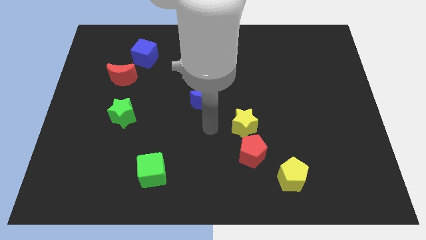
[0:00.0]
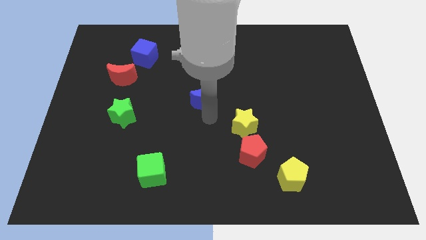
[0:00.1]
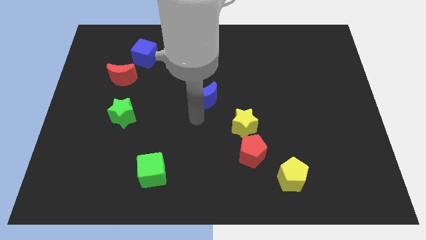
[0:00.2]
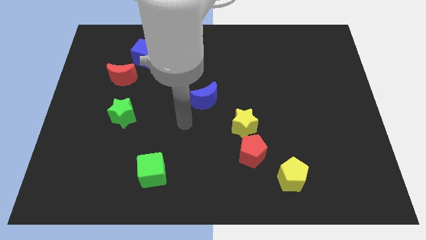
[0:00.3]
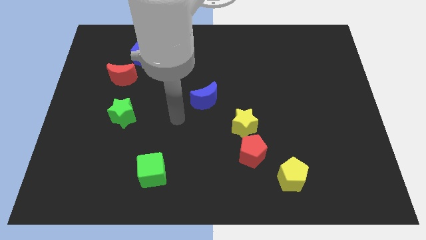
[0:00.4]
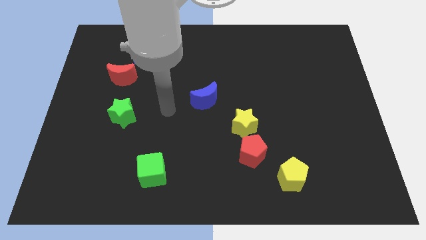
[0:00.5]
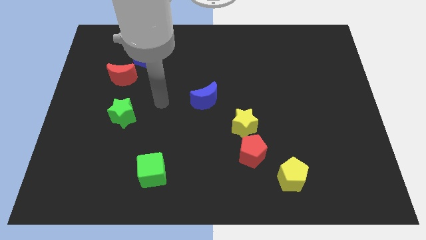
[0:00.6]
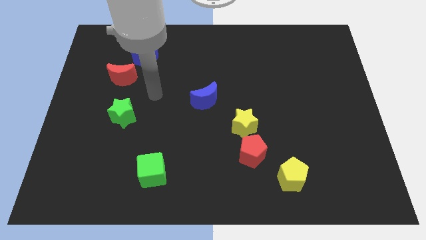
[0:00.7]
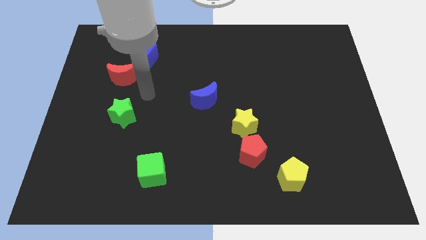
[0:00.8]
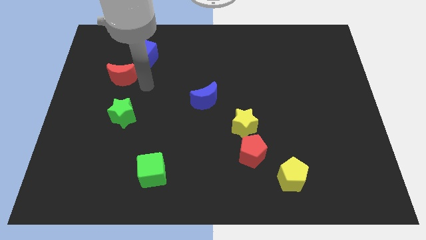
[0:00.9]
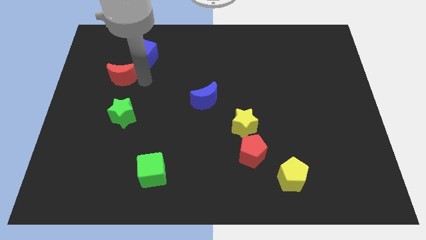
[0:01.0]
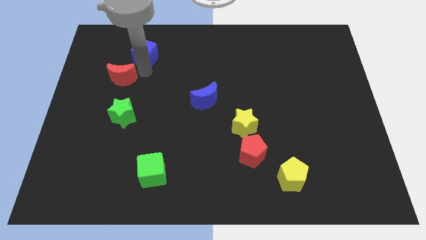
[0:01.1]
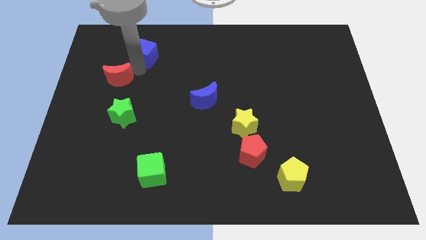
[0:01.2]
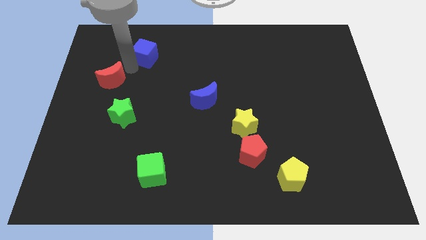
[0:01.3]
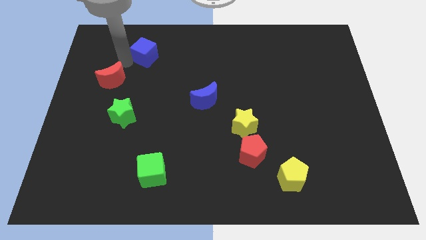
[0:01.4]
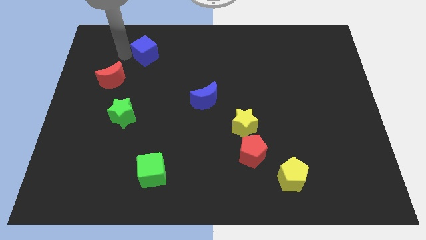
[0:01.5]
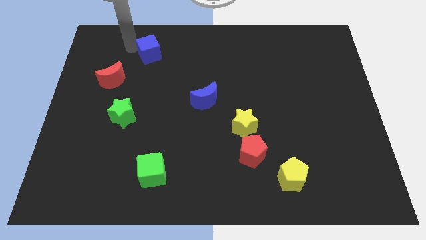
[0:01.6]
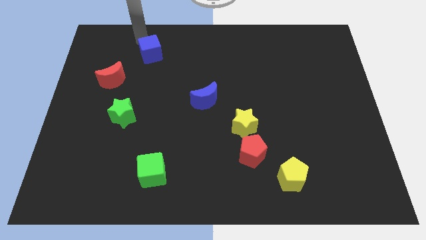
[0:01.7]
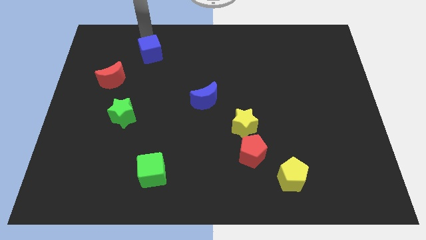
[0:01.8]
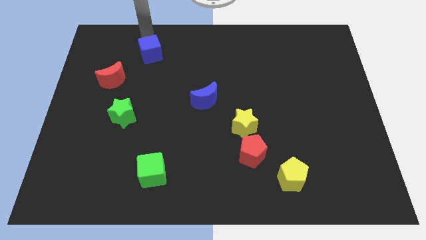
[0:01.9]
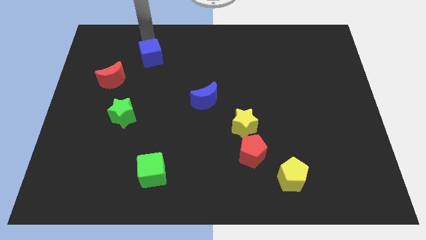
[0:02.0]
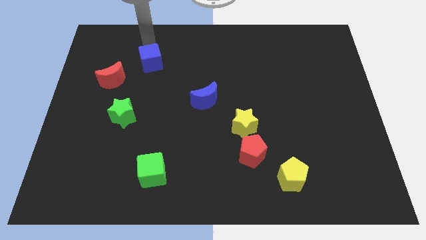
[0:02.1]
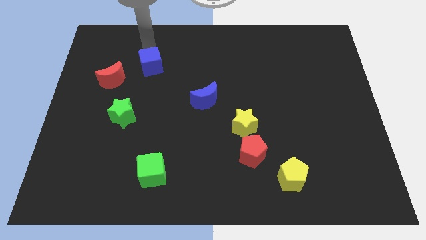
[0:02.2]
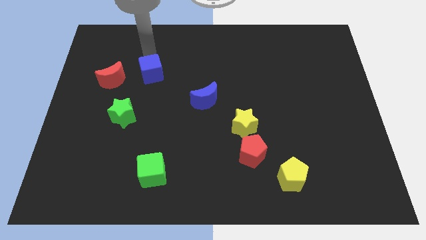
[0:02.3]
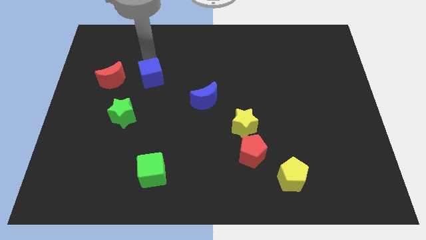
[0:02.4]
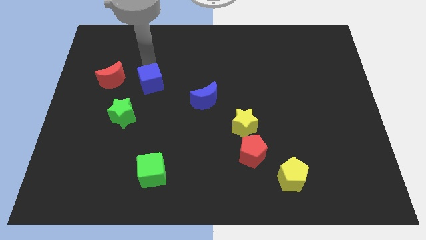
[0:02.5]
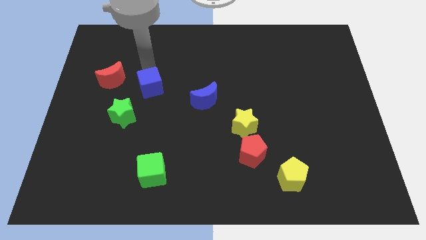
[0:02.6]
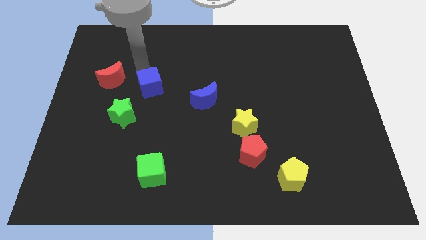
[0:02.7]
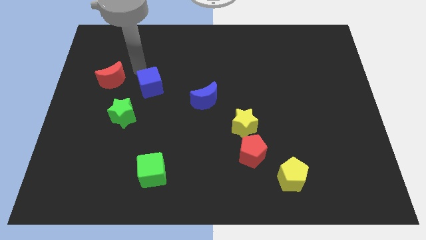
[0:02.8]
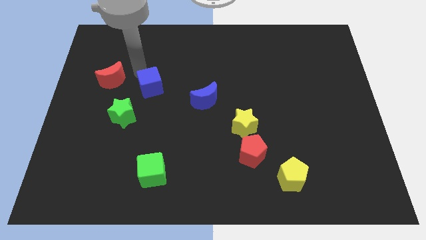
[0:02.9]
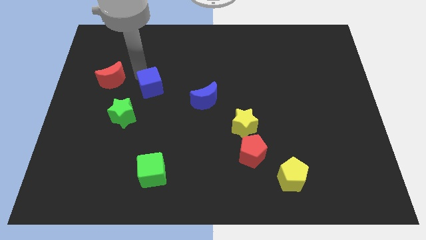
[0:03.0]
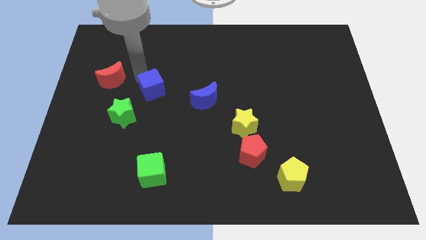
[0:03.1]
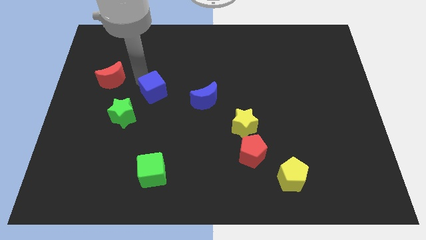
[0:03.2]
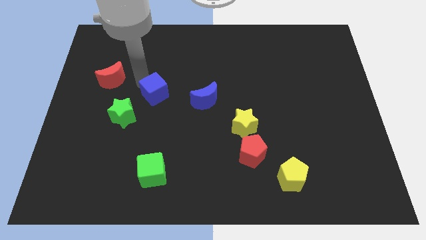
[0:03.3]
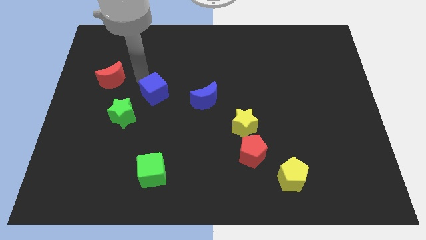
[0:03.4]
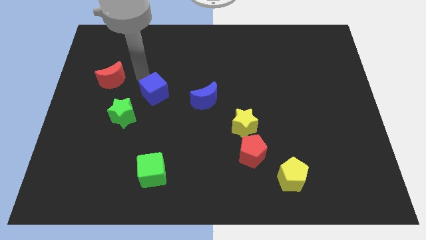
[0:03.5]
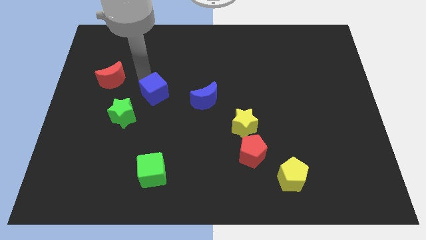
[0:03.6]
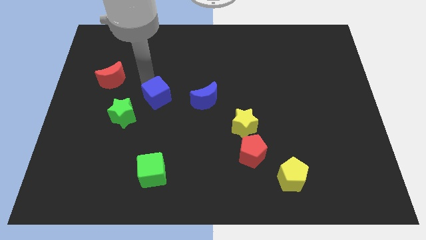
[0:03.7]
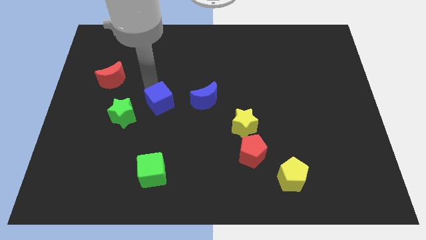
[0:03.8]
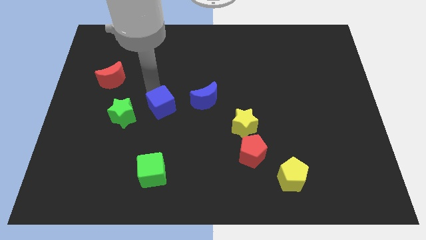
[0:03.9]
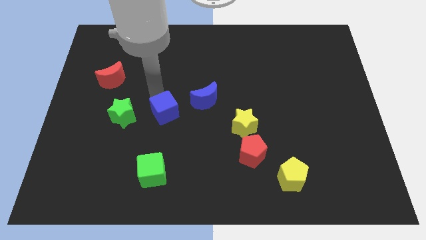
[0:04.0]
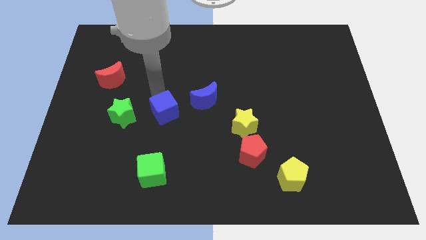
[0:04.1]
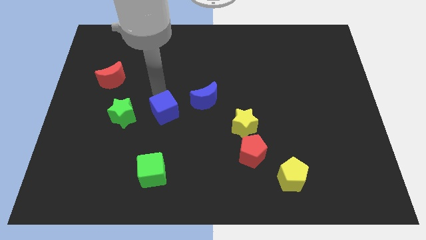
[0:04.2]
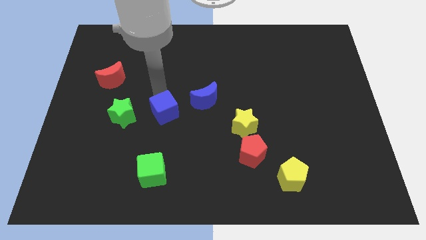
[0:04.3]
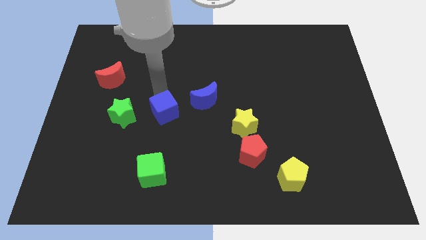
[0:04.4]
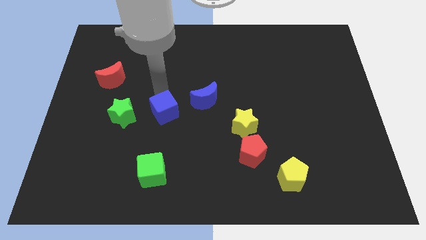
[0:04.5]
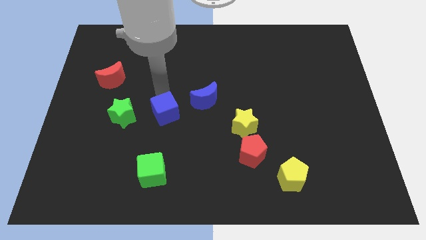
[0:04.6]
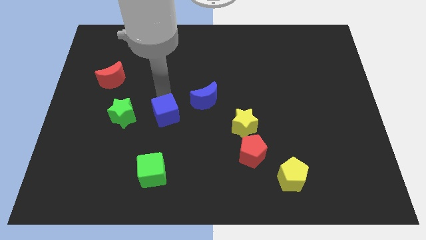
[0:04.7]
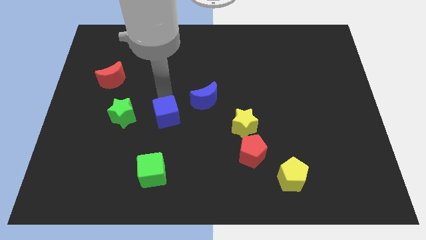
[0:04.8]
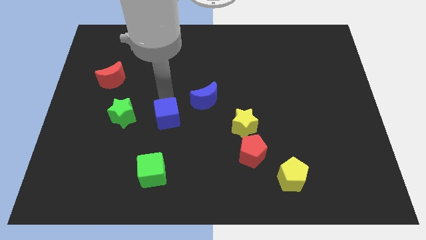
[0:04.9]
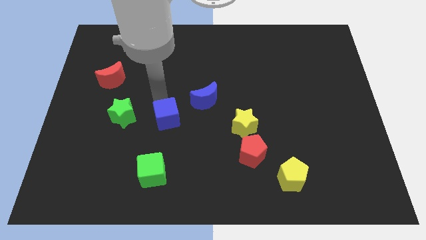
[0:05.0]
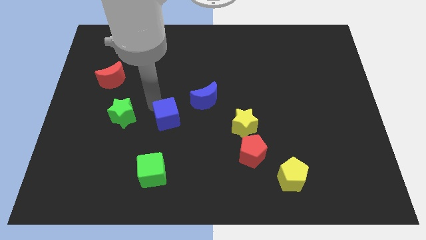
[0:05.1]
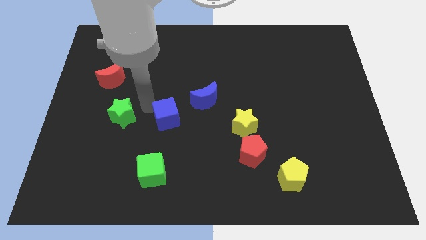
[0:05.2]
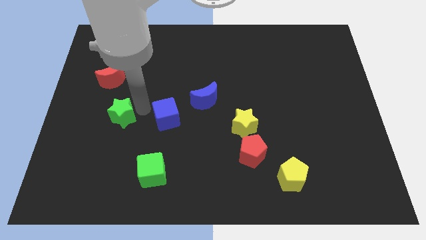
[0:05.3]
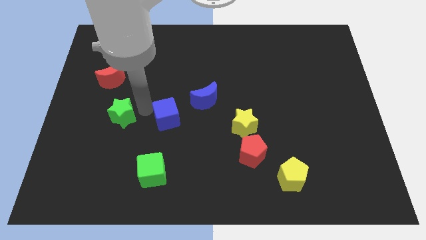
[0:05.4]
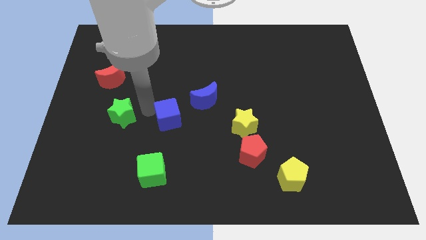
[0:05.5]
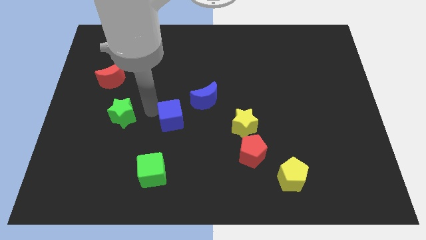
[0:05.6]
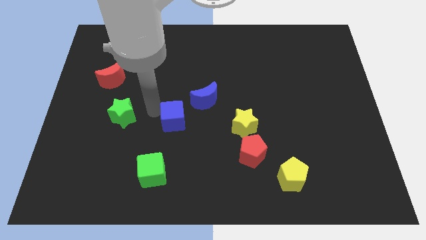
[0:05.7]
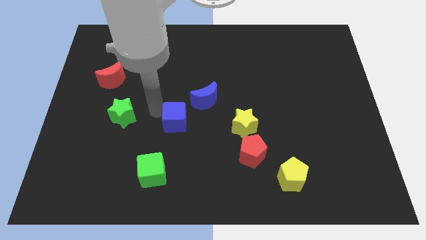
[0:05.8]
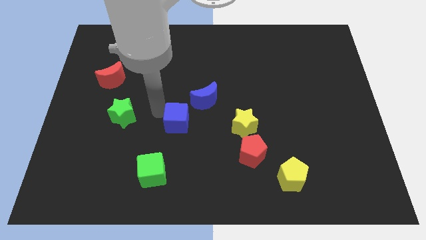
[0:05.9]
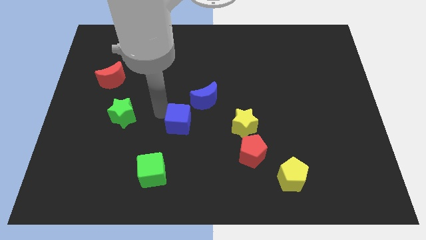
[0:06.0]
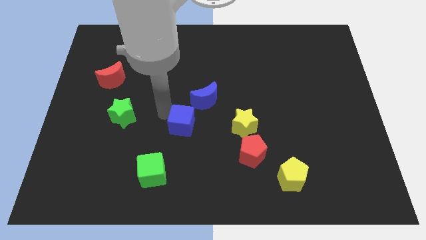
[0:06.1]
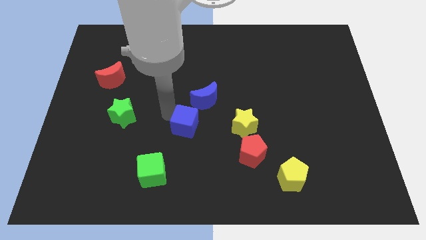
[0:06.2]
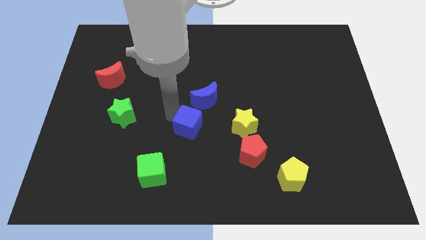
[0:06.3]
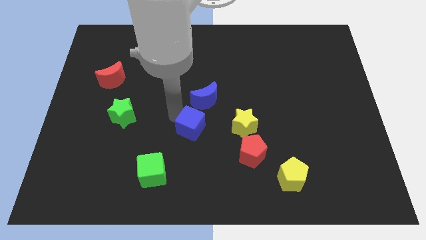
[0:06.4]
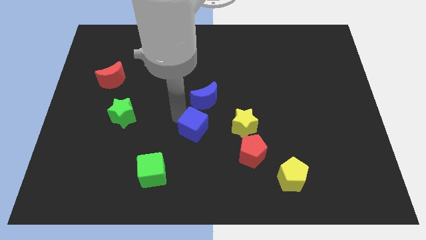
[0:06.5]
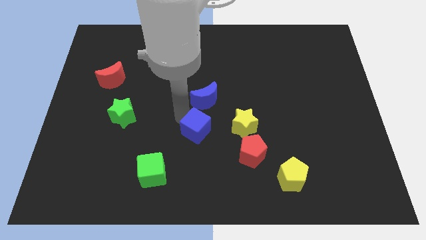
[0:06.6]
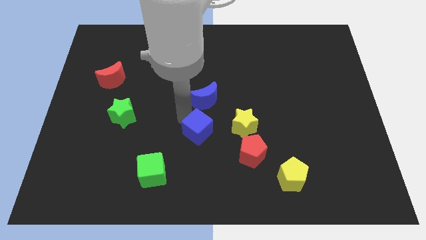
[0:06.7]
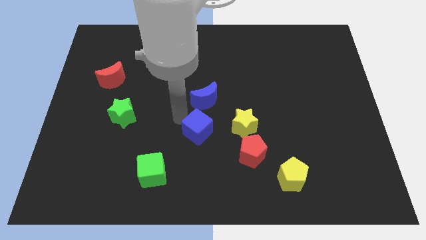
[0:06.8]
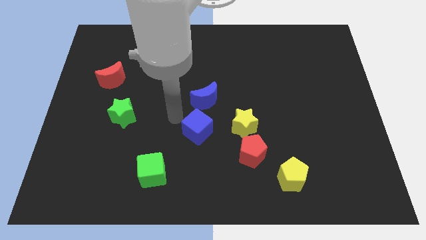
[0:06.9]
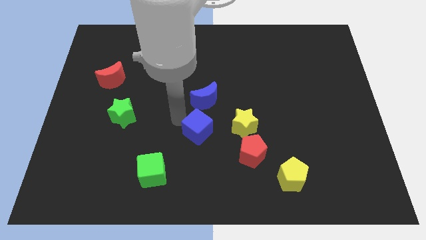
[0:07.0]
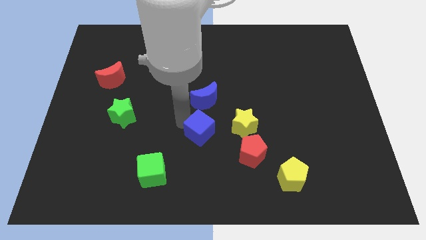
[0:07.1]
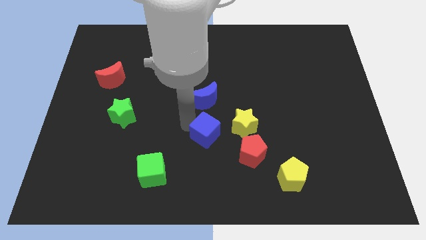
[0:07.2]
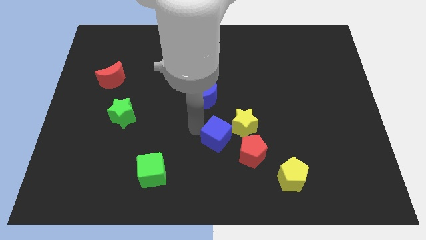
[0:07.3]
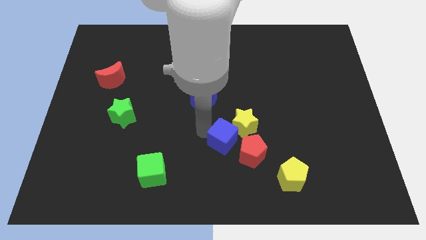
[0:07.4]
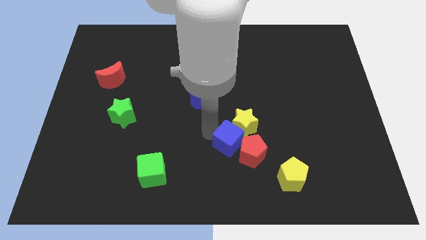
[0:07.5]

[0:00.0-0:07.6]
put the blue cube to the red pentagon
